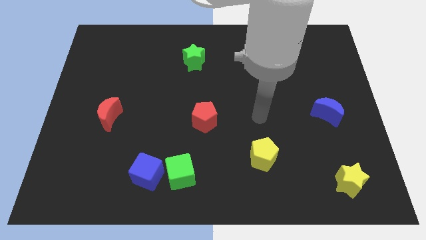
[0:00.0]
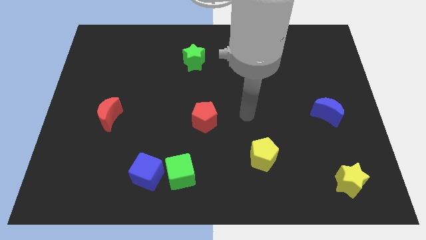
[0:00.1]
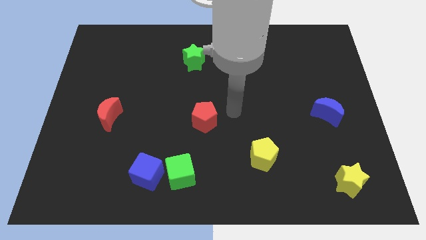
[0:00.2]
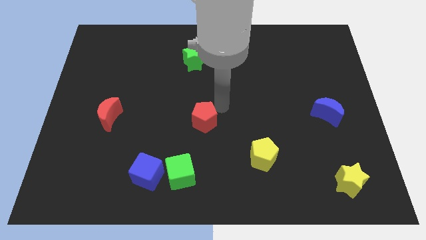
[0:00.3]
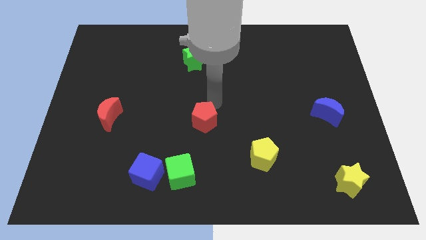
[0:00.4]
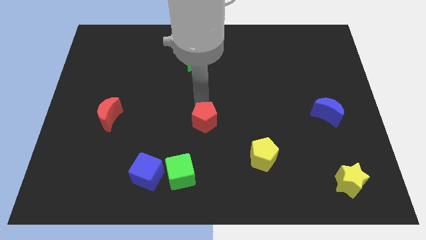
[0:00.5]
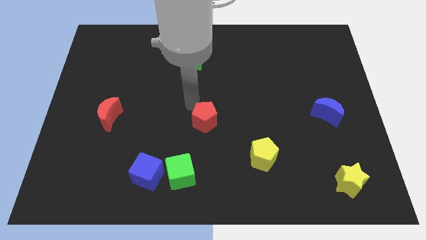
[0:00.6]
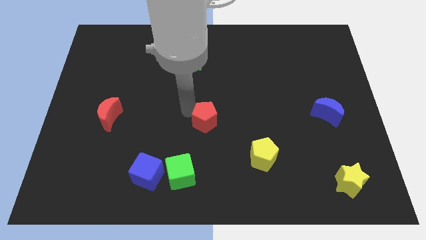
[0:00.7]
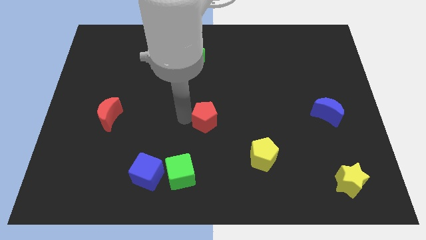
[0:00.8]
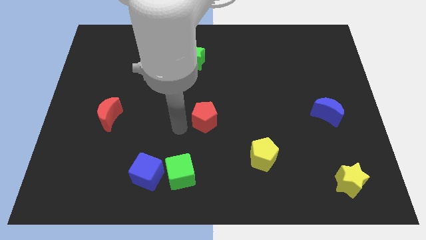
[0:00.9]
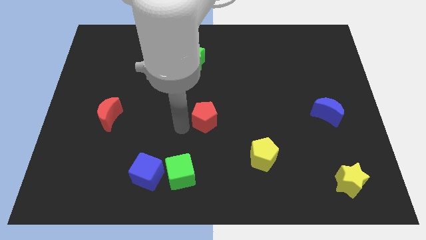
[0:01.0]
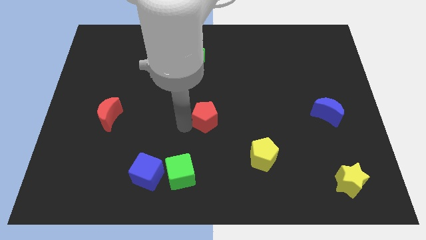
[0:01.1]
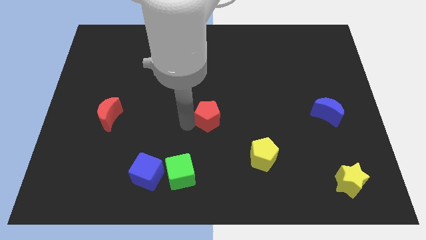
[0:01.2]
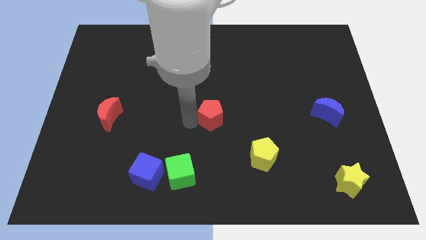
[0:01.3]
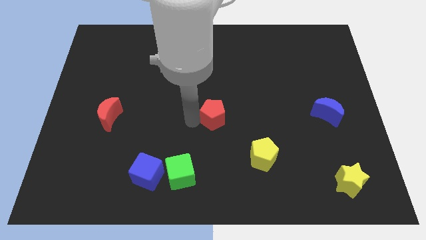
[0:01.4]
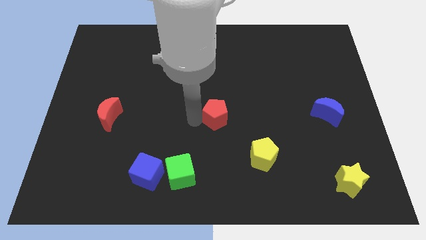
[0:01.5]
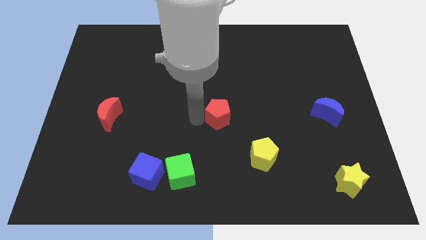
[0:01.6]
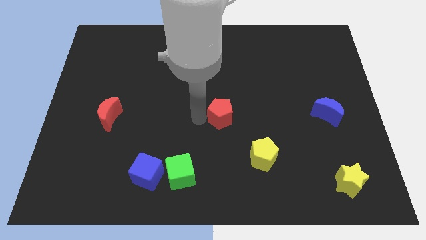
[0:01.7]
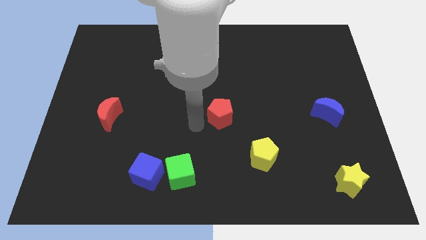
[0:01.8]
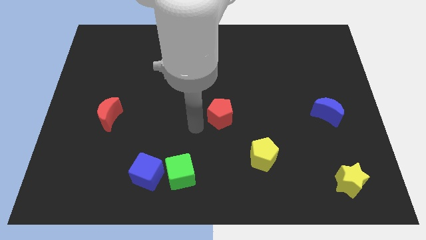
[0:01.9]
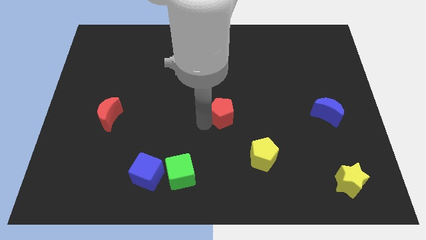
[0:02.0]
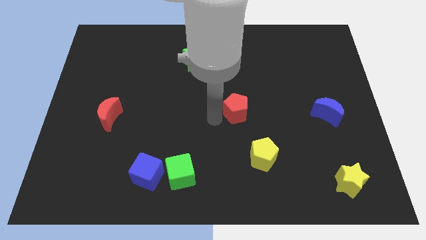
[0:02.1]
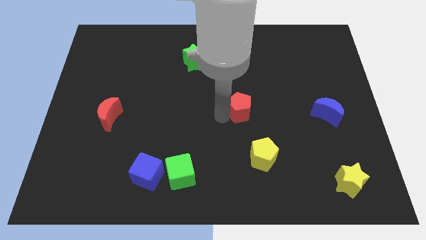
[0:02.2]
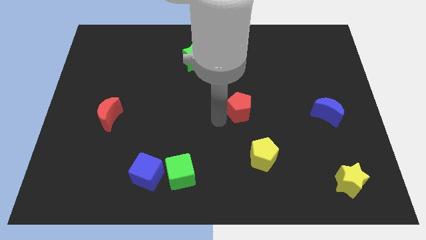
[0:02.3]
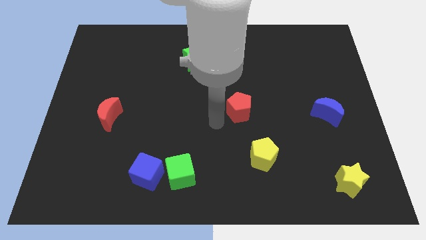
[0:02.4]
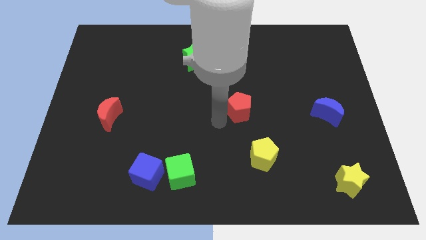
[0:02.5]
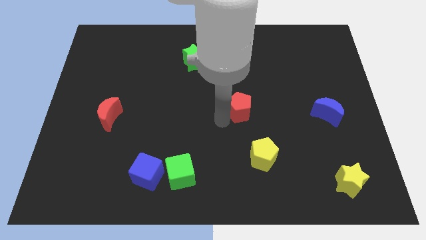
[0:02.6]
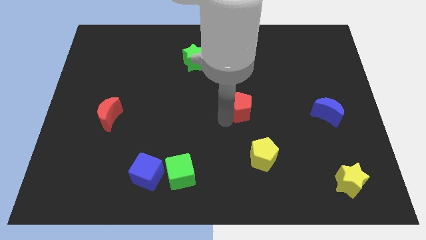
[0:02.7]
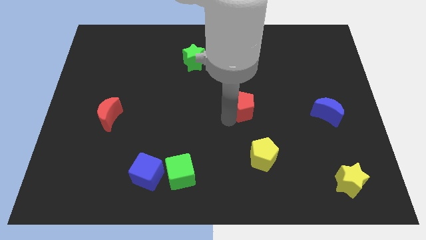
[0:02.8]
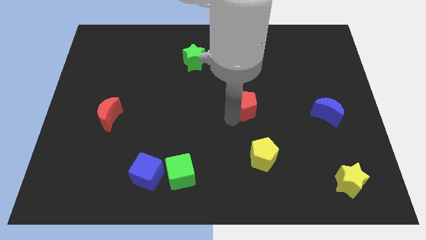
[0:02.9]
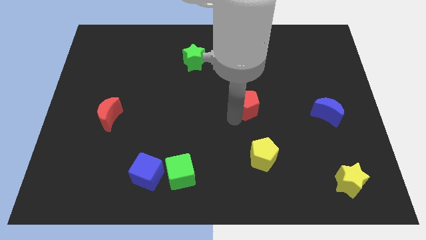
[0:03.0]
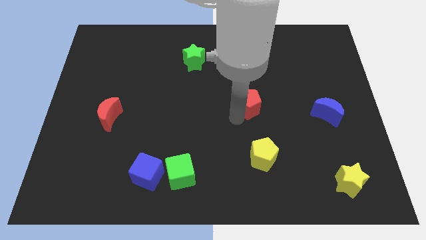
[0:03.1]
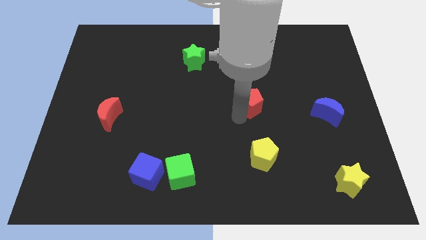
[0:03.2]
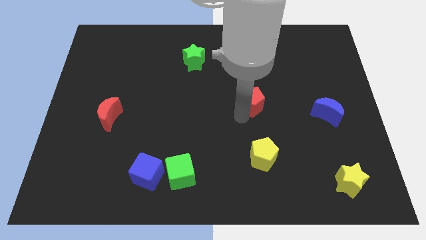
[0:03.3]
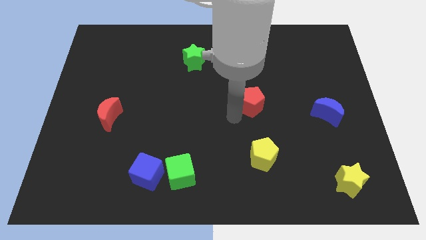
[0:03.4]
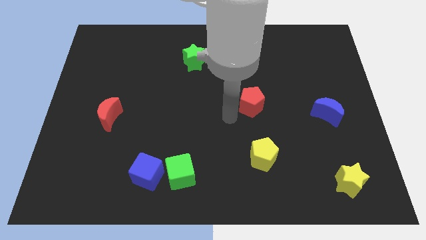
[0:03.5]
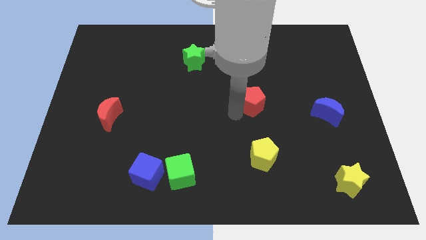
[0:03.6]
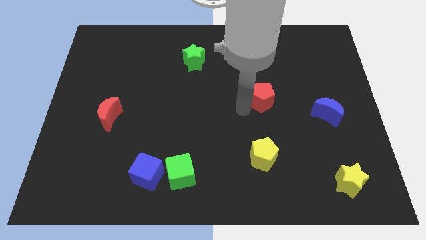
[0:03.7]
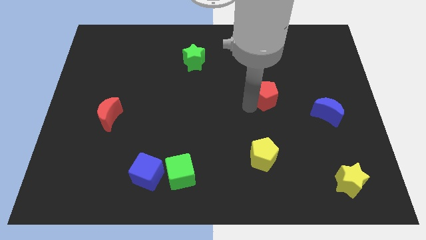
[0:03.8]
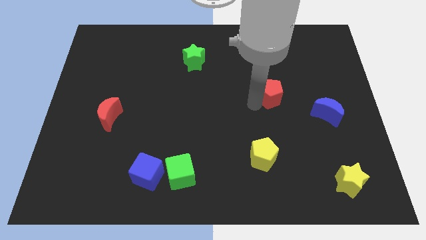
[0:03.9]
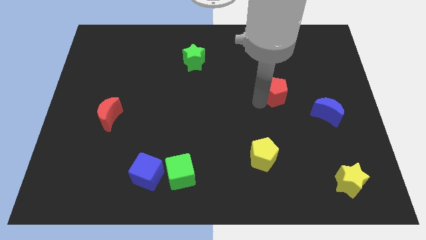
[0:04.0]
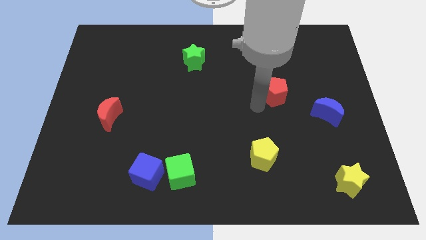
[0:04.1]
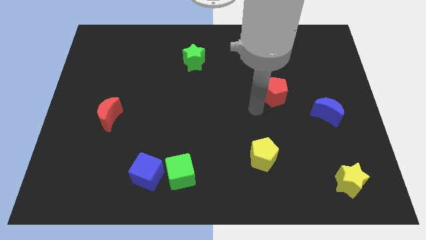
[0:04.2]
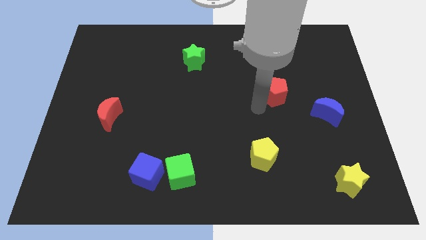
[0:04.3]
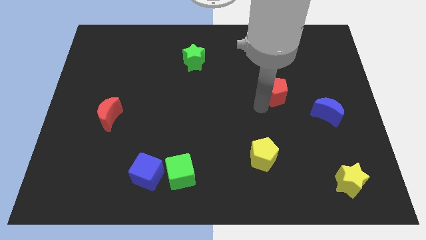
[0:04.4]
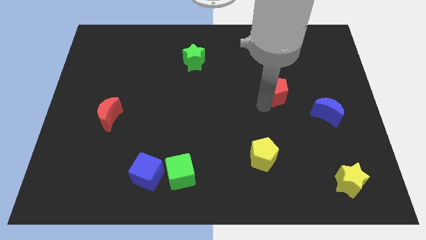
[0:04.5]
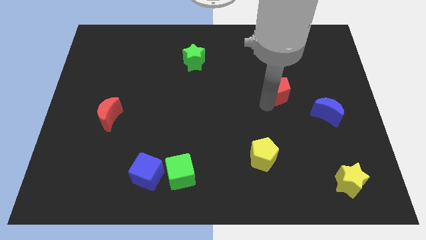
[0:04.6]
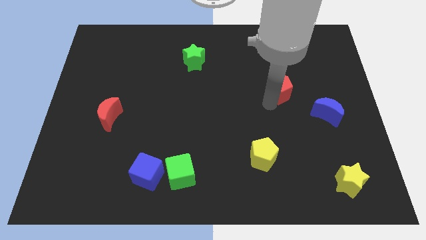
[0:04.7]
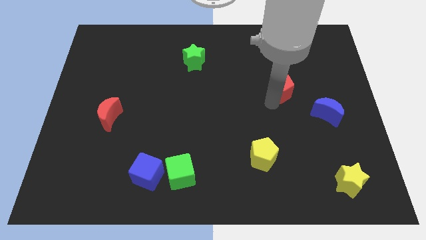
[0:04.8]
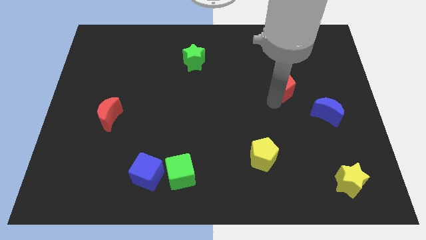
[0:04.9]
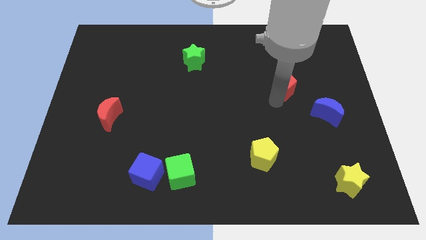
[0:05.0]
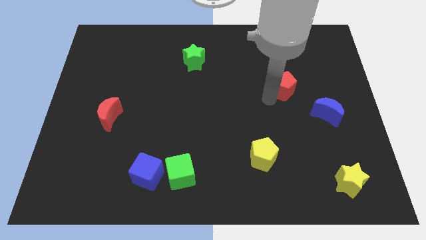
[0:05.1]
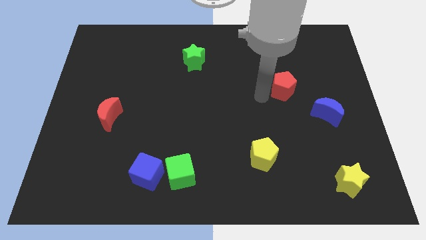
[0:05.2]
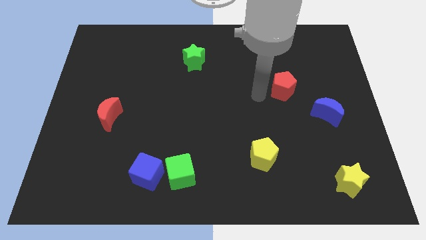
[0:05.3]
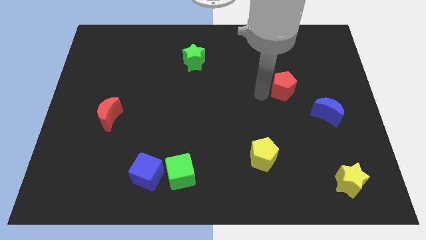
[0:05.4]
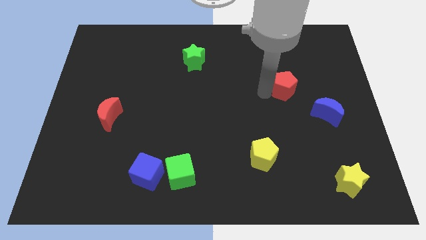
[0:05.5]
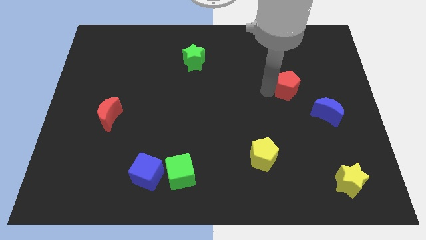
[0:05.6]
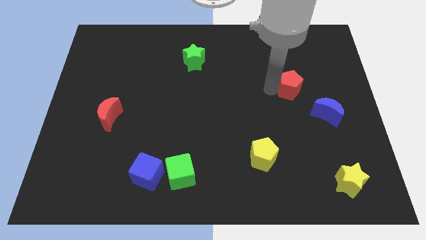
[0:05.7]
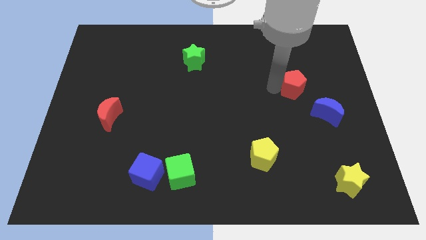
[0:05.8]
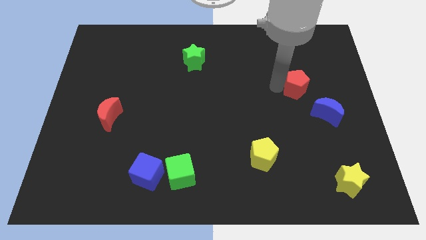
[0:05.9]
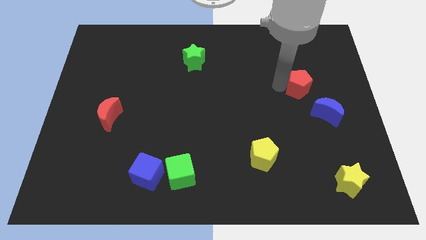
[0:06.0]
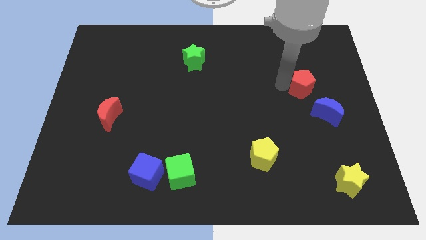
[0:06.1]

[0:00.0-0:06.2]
slide the red pentagon to the top side of the blue moon
